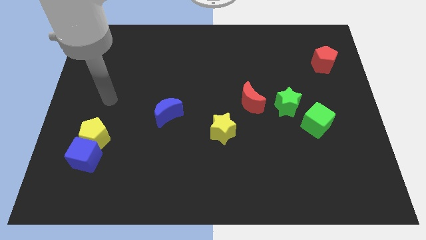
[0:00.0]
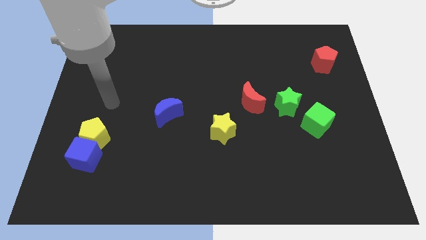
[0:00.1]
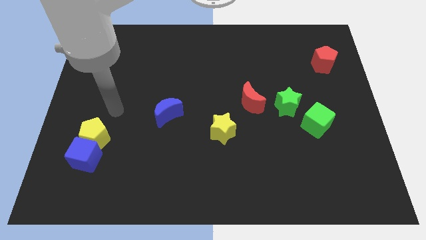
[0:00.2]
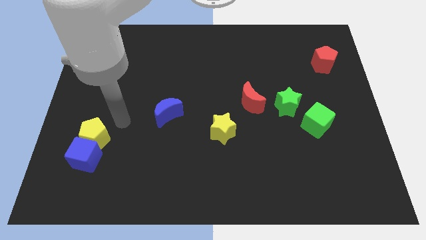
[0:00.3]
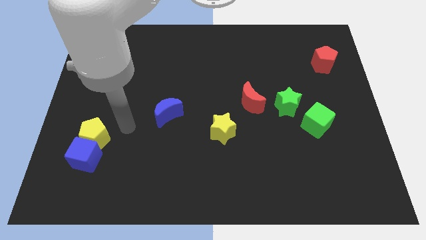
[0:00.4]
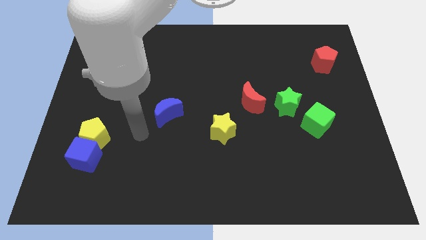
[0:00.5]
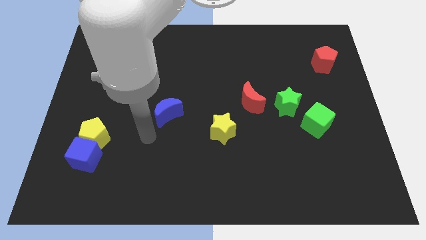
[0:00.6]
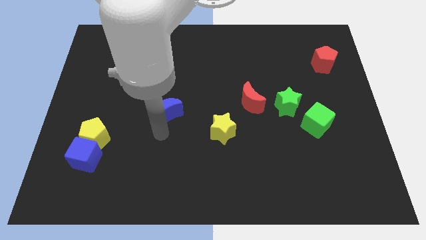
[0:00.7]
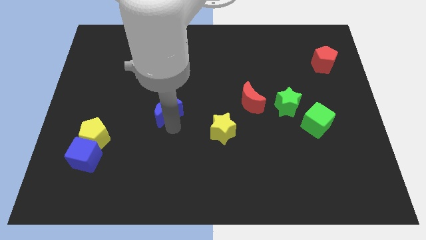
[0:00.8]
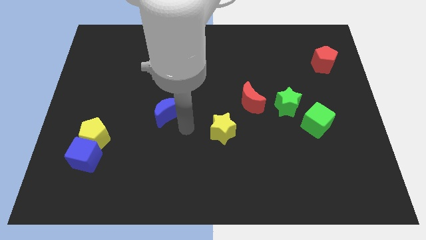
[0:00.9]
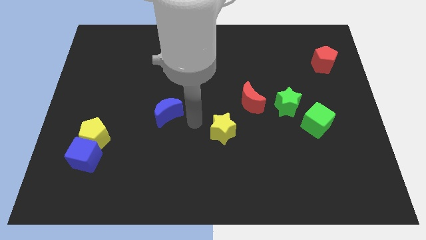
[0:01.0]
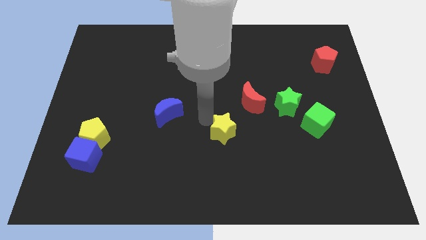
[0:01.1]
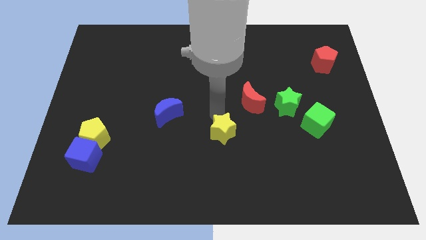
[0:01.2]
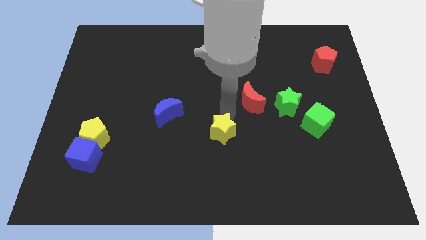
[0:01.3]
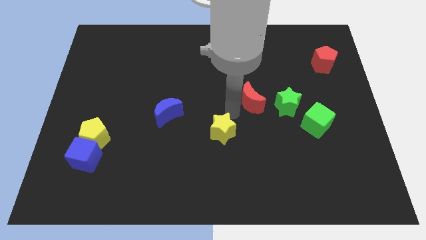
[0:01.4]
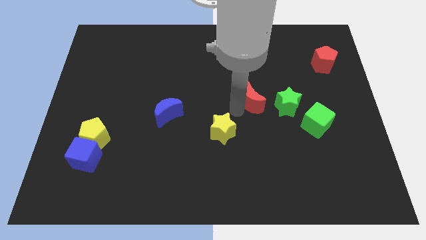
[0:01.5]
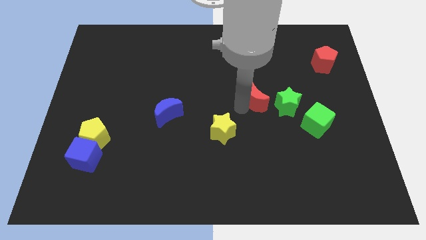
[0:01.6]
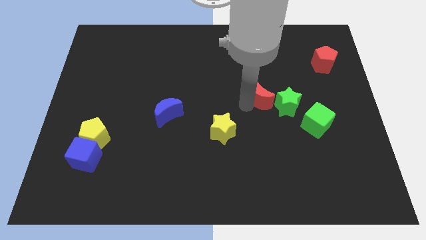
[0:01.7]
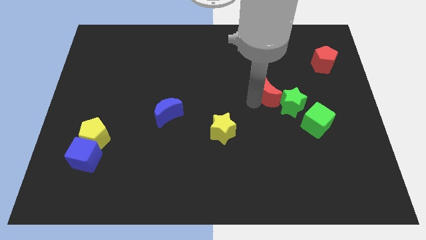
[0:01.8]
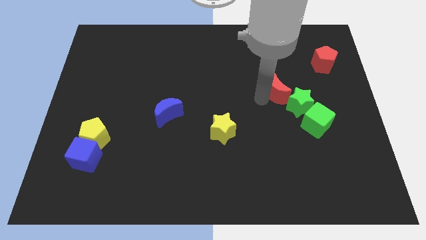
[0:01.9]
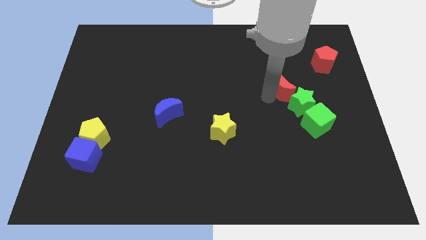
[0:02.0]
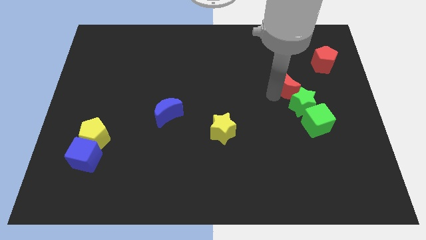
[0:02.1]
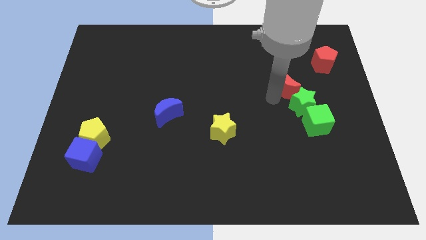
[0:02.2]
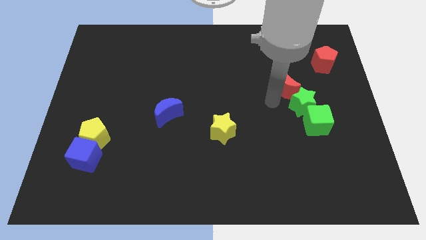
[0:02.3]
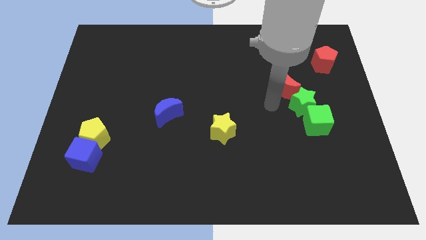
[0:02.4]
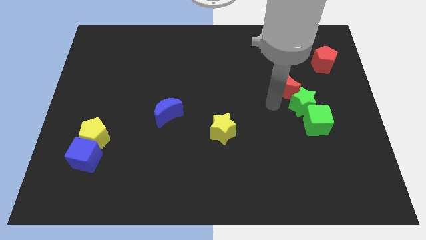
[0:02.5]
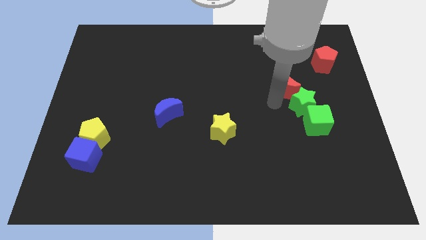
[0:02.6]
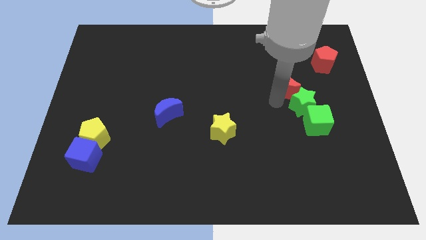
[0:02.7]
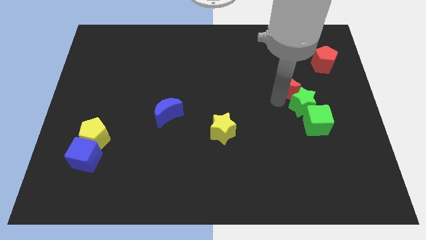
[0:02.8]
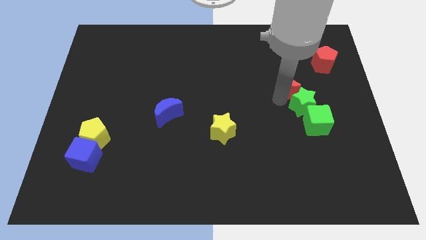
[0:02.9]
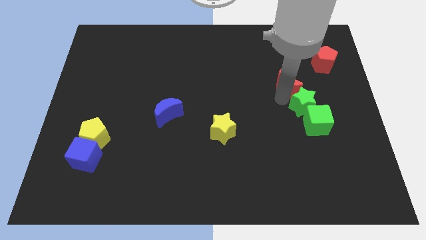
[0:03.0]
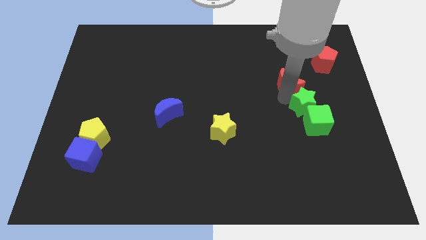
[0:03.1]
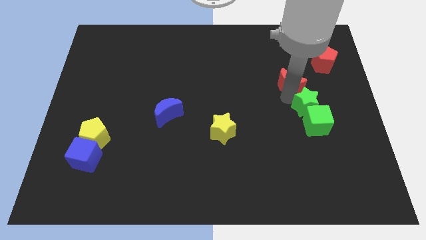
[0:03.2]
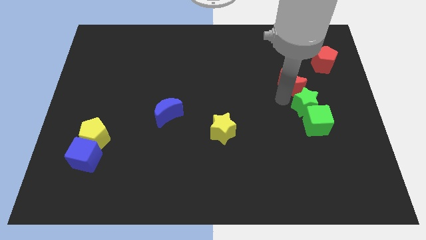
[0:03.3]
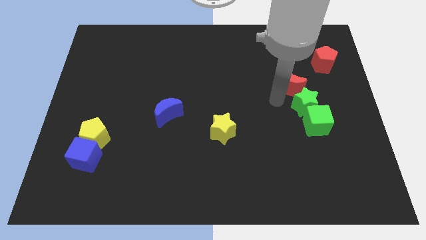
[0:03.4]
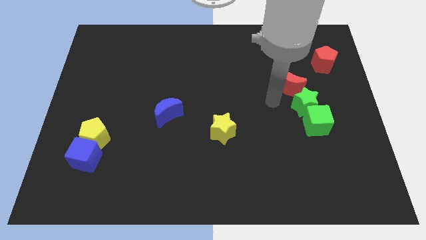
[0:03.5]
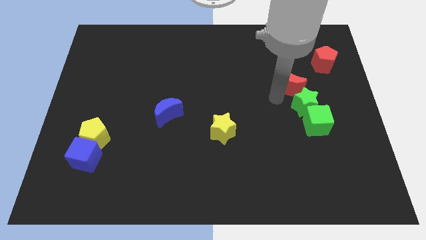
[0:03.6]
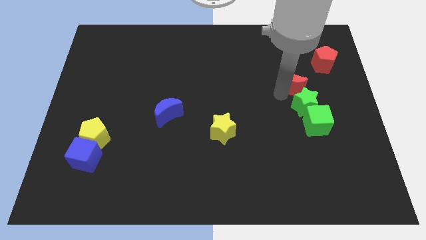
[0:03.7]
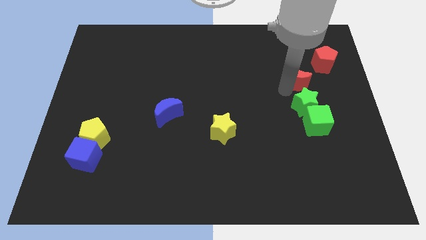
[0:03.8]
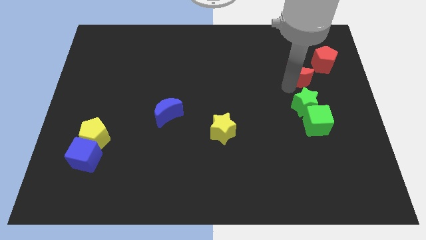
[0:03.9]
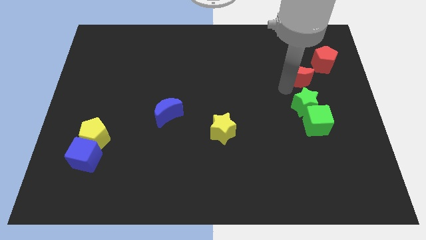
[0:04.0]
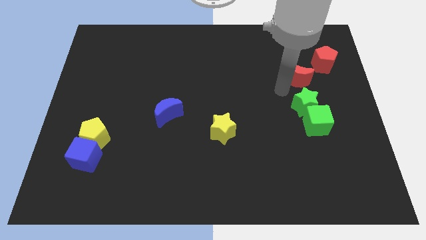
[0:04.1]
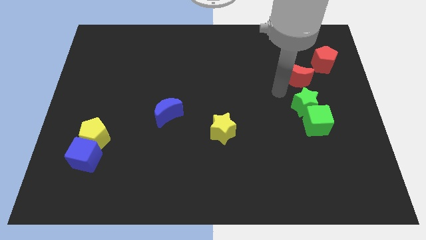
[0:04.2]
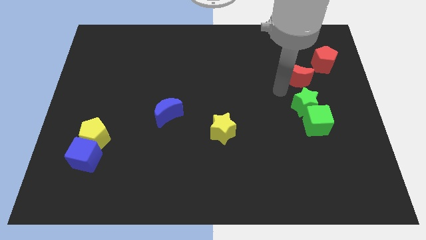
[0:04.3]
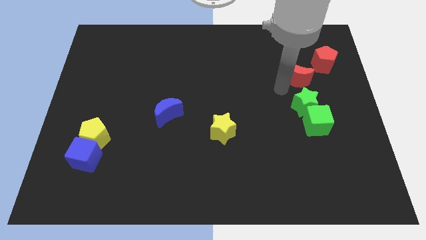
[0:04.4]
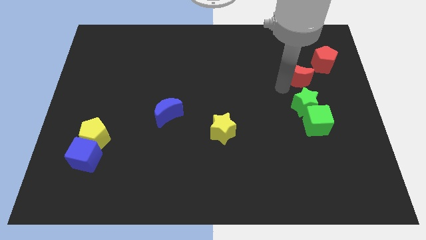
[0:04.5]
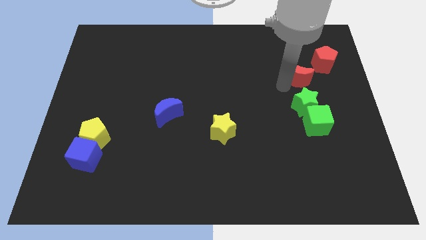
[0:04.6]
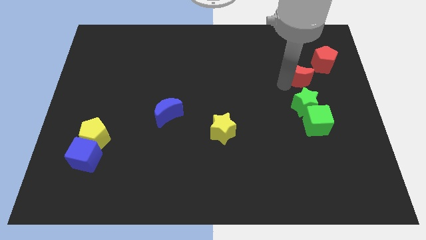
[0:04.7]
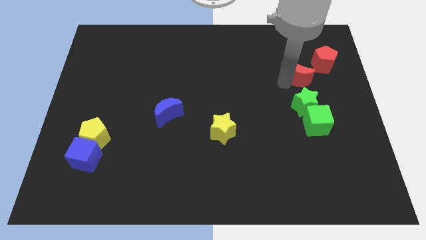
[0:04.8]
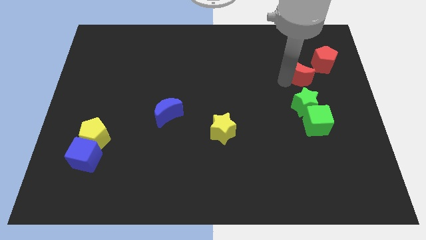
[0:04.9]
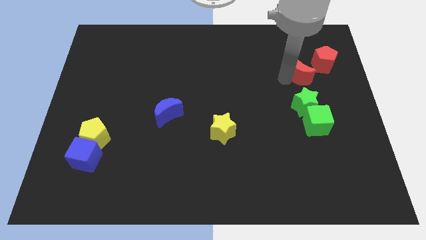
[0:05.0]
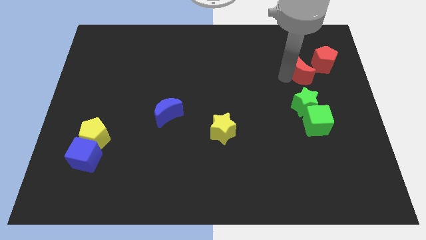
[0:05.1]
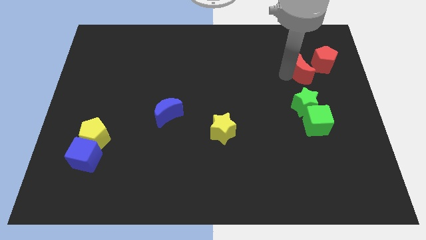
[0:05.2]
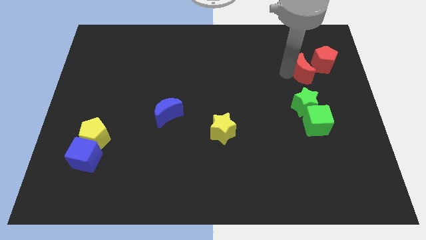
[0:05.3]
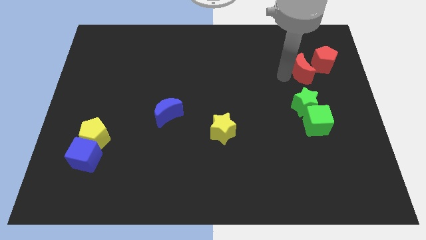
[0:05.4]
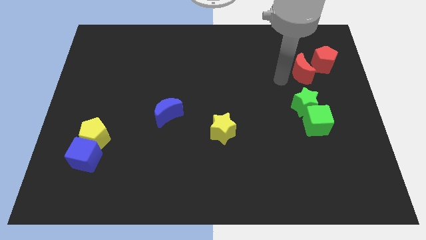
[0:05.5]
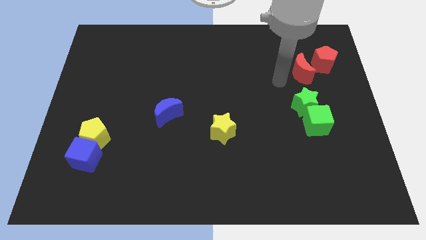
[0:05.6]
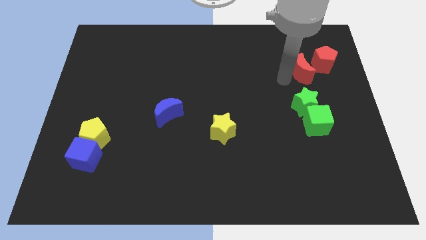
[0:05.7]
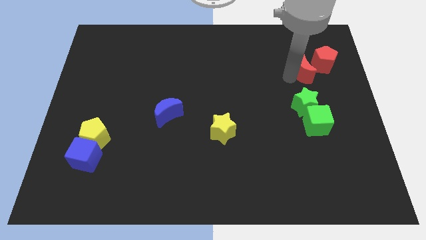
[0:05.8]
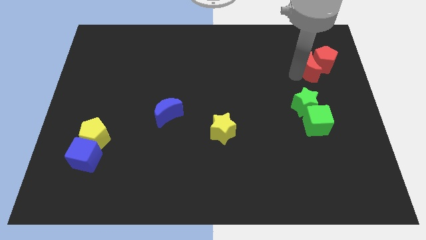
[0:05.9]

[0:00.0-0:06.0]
slide the red moon to the red pentagon

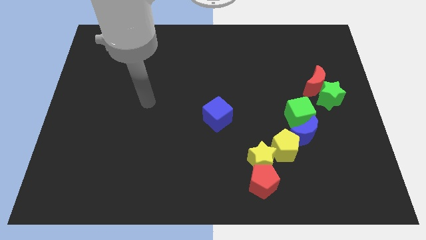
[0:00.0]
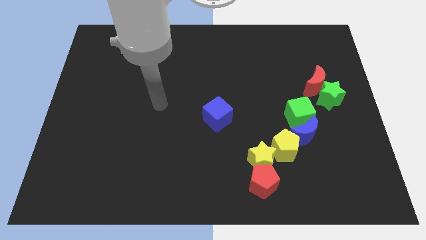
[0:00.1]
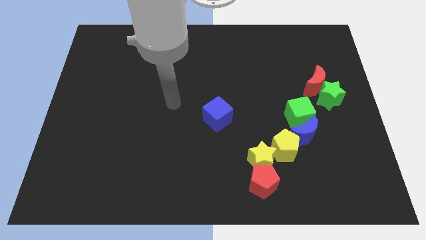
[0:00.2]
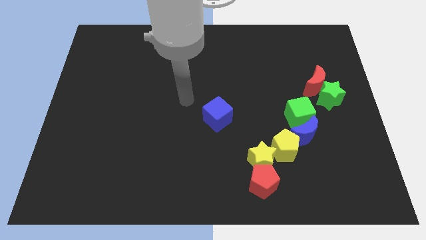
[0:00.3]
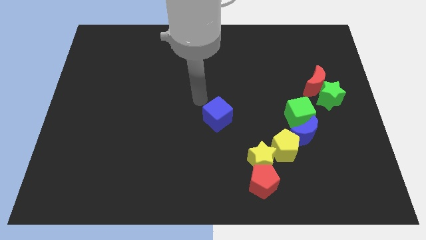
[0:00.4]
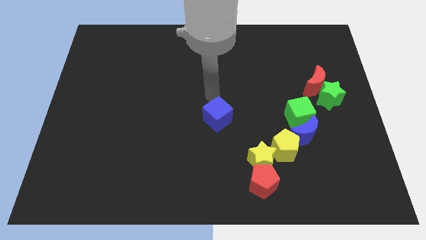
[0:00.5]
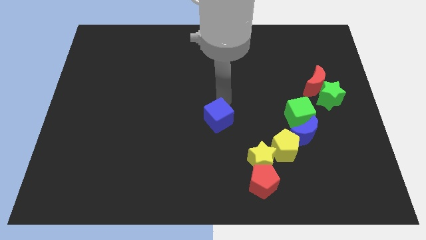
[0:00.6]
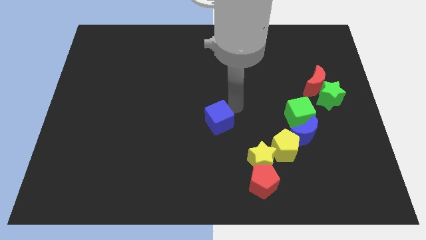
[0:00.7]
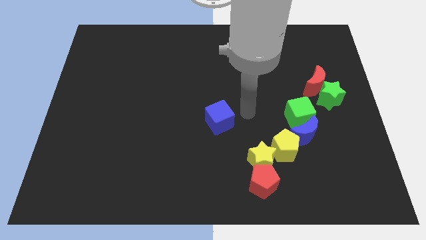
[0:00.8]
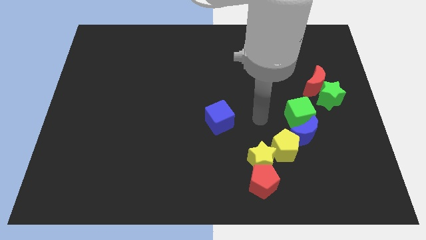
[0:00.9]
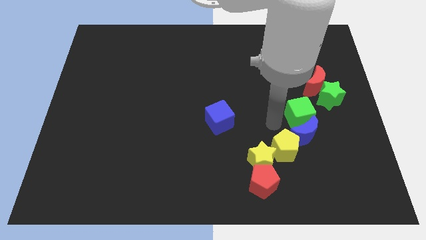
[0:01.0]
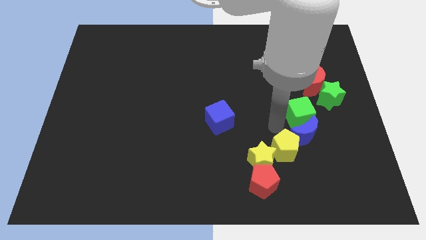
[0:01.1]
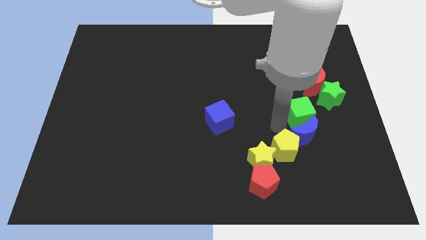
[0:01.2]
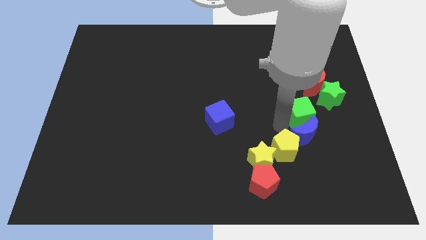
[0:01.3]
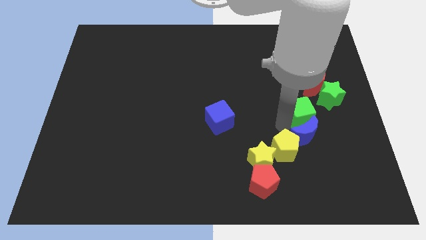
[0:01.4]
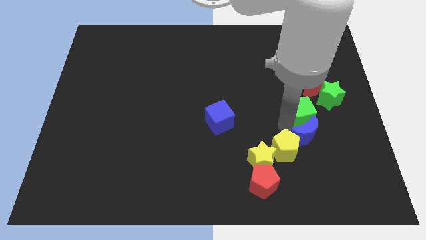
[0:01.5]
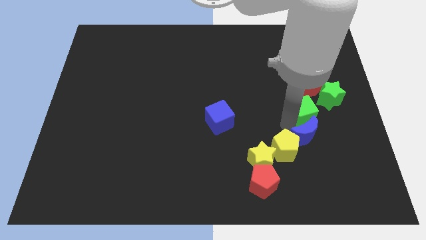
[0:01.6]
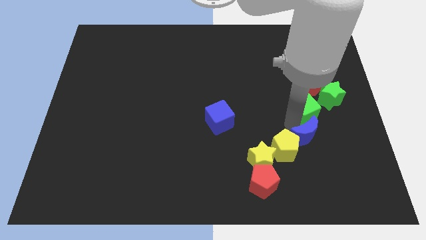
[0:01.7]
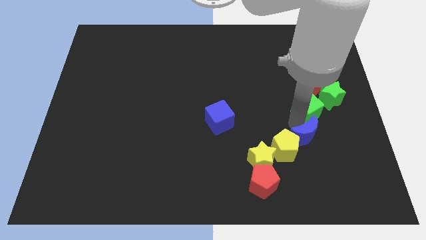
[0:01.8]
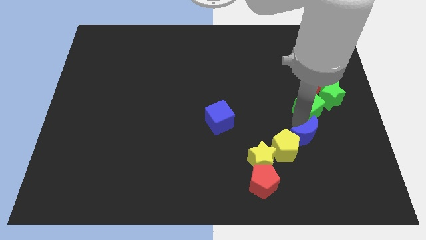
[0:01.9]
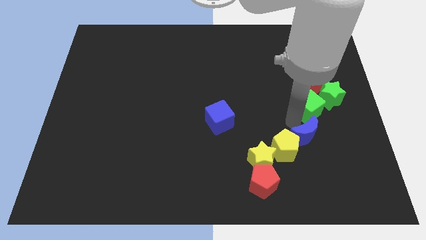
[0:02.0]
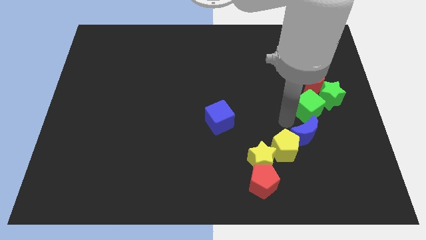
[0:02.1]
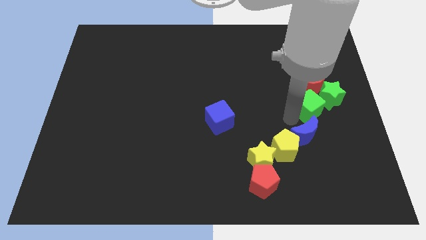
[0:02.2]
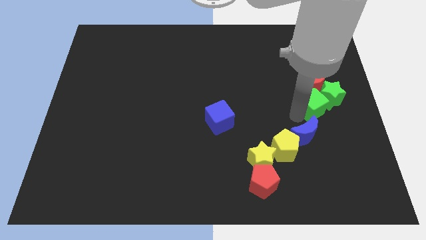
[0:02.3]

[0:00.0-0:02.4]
slide the green cube close to the green star
